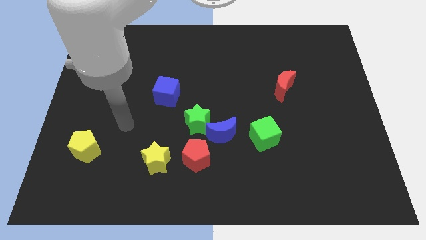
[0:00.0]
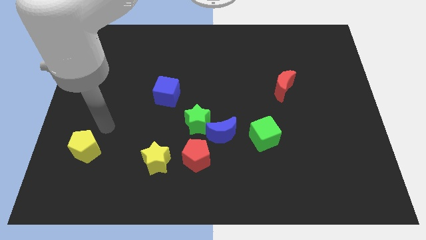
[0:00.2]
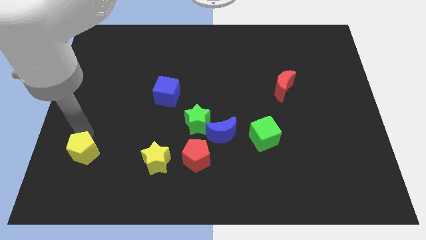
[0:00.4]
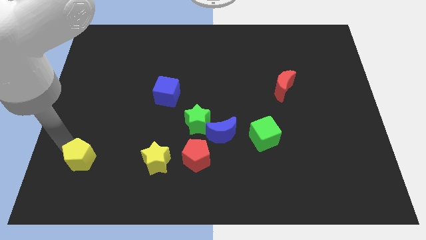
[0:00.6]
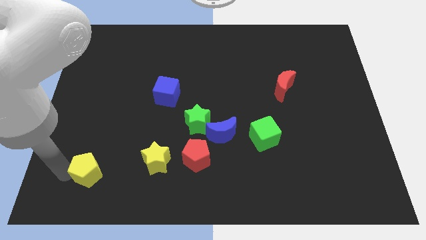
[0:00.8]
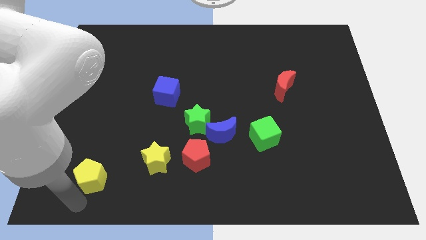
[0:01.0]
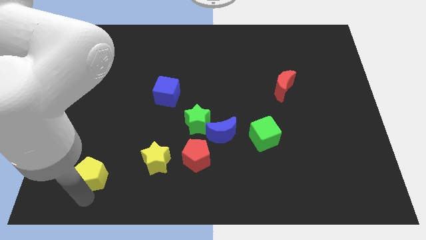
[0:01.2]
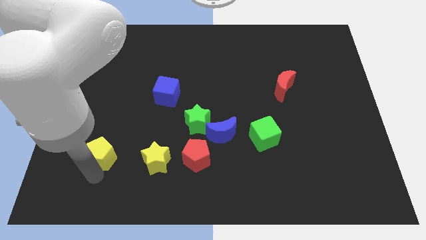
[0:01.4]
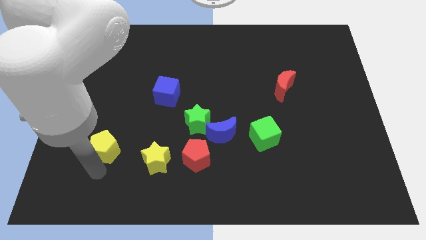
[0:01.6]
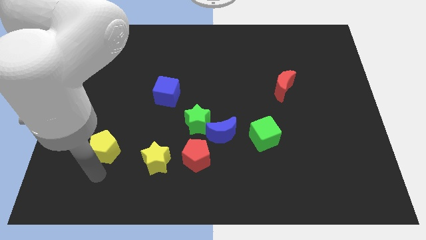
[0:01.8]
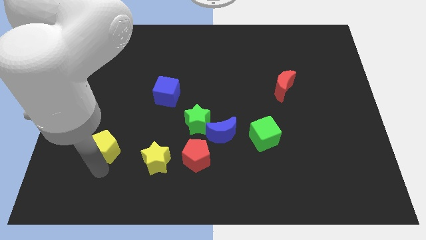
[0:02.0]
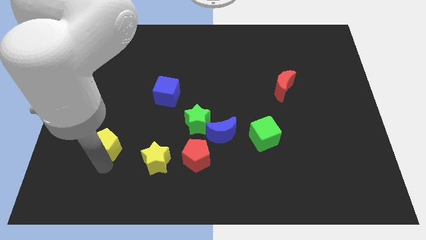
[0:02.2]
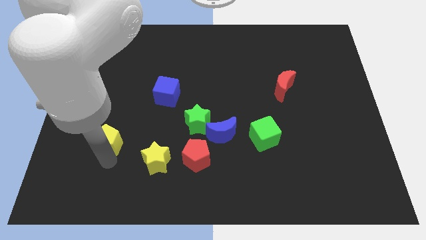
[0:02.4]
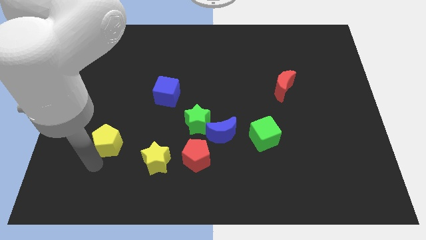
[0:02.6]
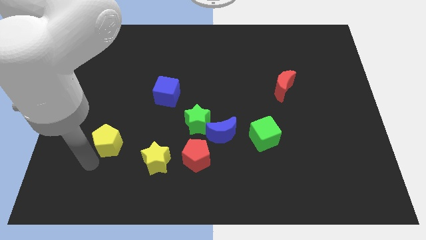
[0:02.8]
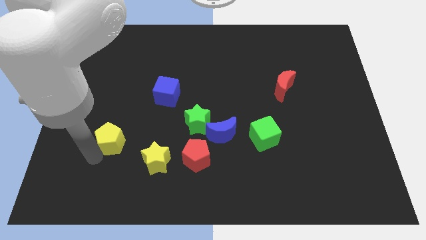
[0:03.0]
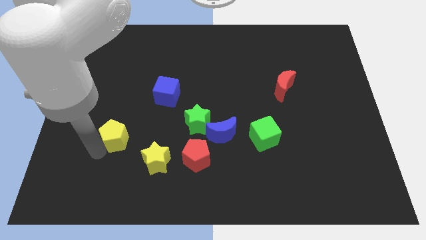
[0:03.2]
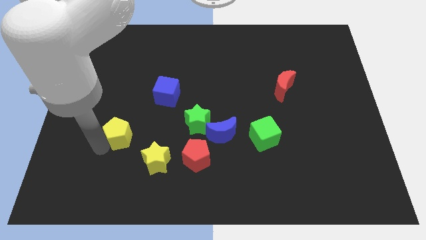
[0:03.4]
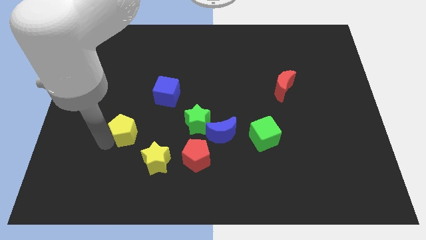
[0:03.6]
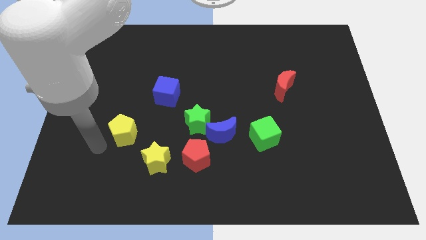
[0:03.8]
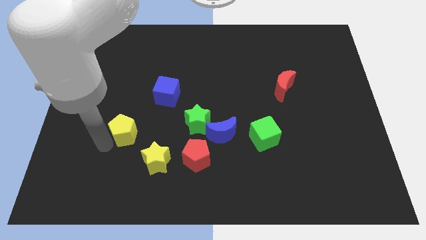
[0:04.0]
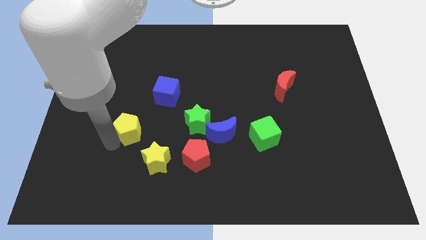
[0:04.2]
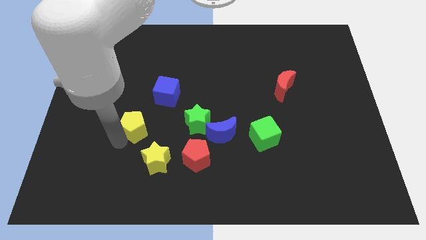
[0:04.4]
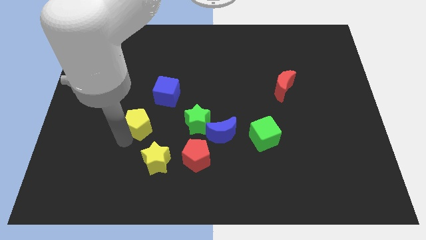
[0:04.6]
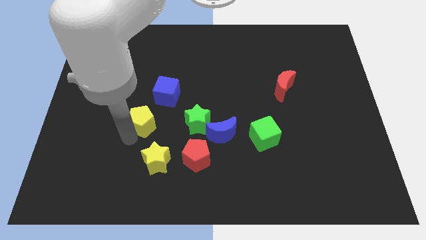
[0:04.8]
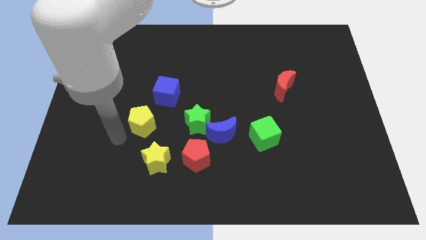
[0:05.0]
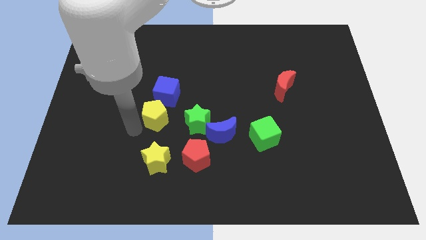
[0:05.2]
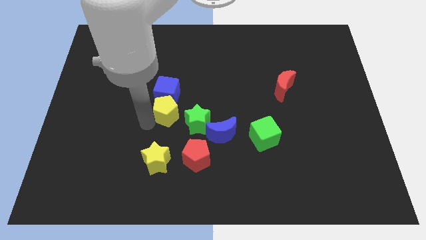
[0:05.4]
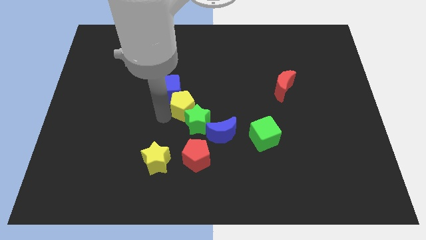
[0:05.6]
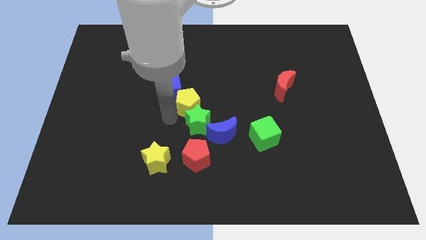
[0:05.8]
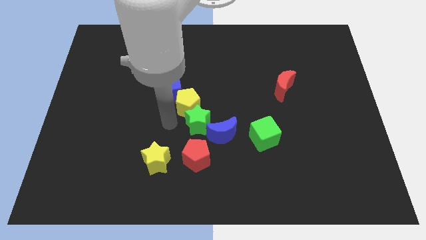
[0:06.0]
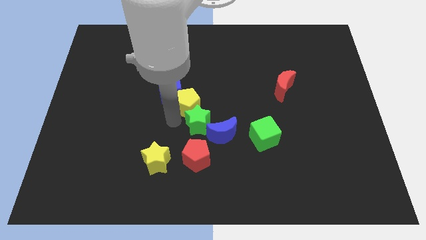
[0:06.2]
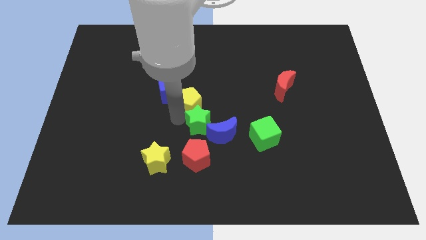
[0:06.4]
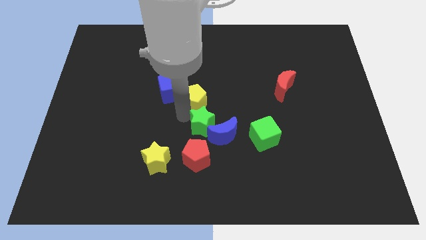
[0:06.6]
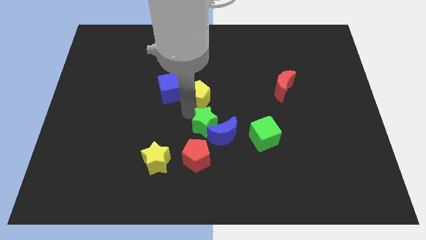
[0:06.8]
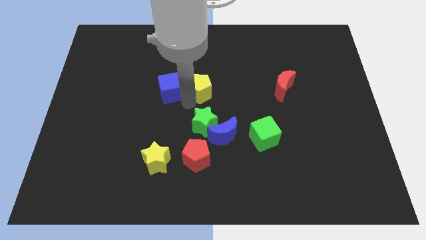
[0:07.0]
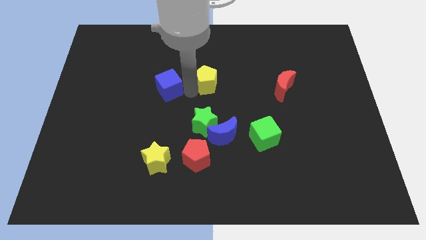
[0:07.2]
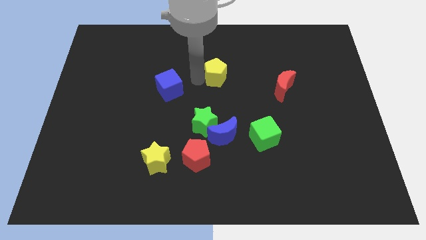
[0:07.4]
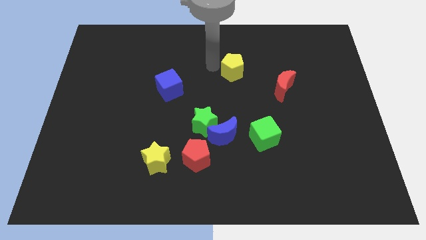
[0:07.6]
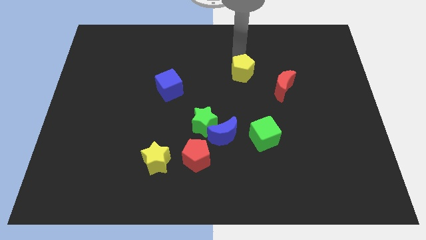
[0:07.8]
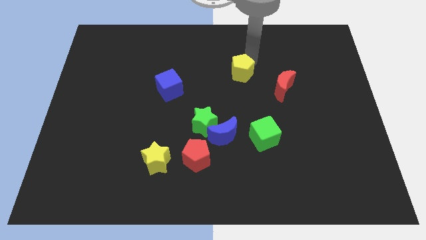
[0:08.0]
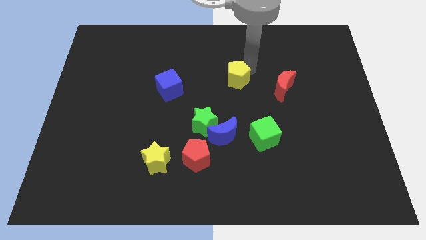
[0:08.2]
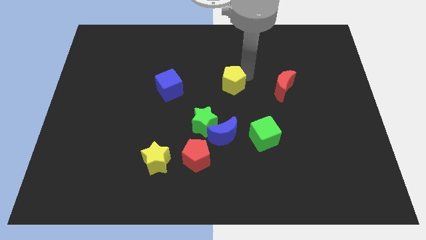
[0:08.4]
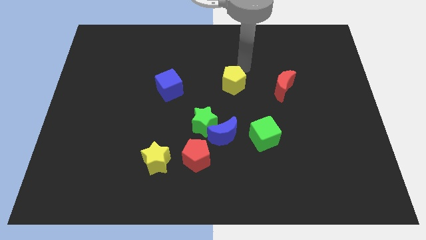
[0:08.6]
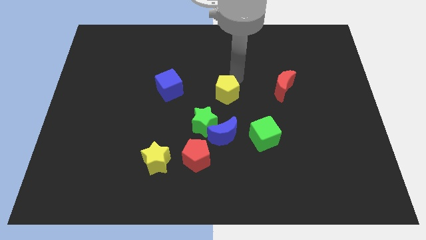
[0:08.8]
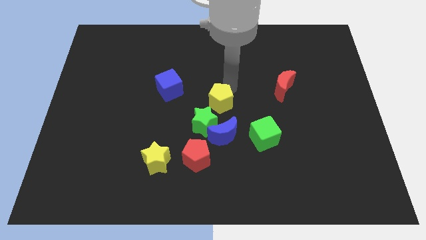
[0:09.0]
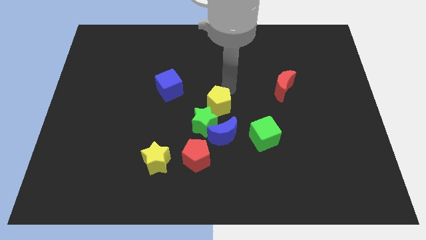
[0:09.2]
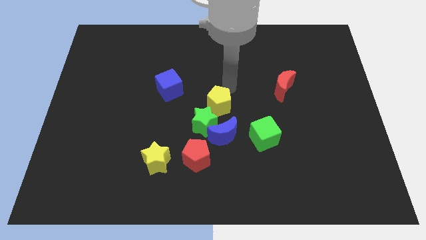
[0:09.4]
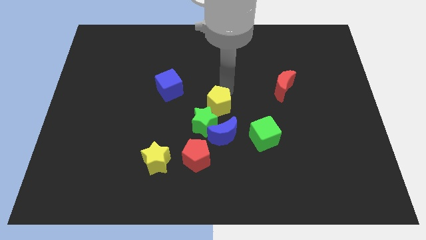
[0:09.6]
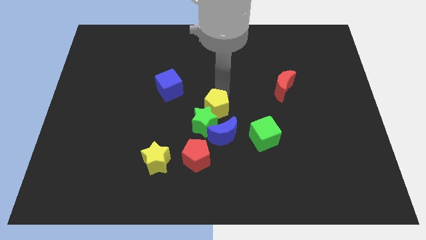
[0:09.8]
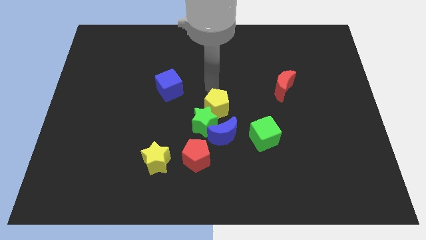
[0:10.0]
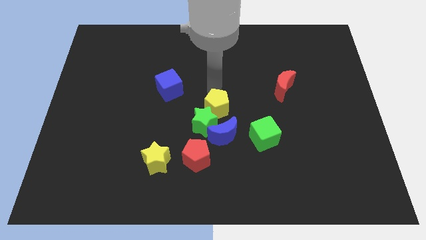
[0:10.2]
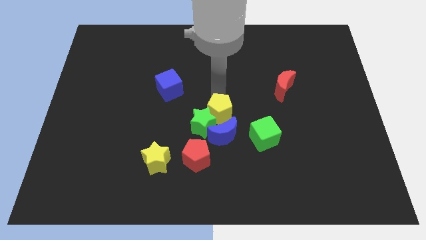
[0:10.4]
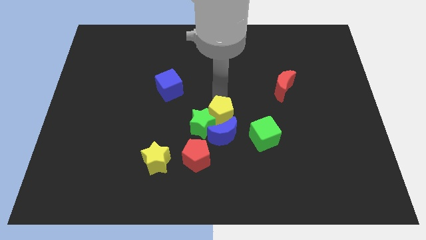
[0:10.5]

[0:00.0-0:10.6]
move the yellow pentagon to the blue moon
